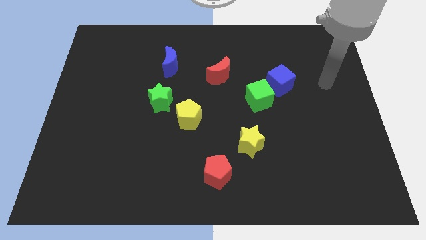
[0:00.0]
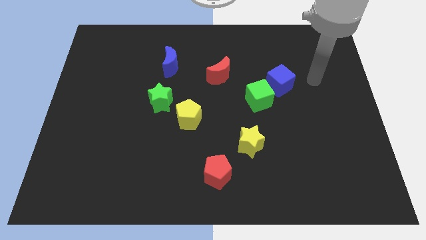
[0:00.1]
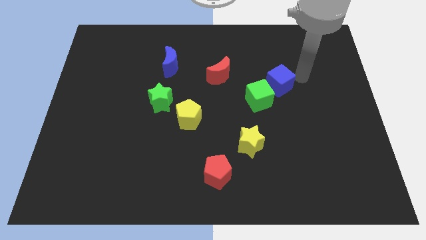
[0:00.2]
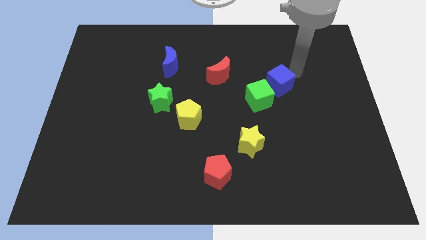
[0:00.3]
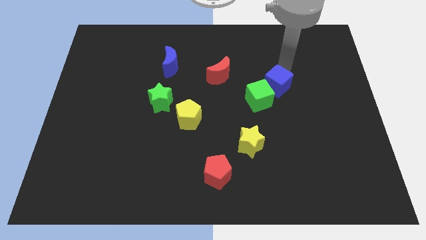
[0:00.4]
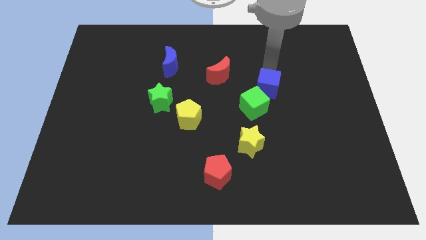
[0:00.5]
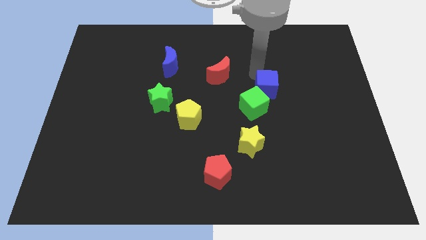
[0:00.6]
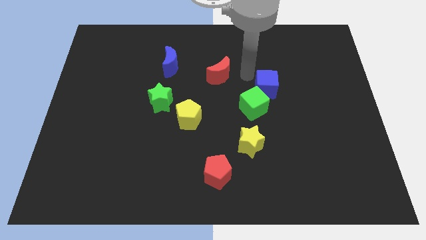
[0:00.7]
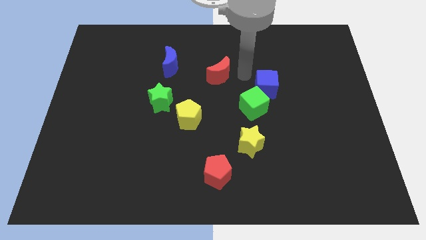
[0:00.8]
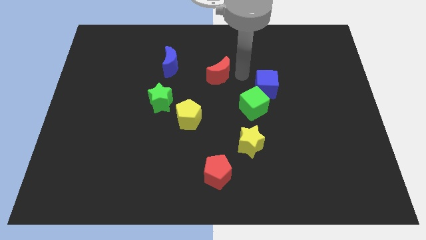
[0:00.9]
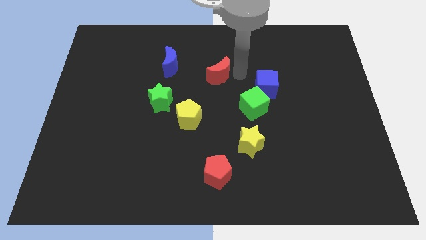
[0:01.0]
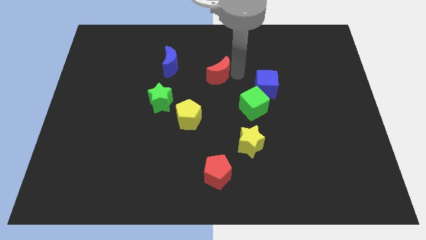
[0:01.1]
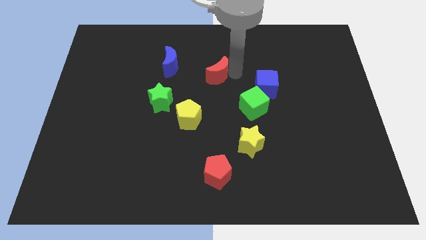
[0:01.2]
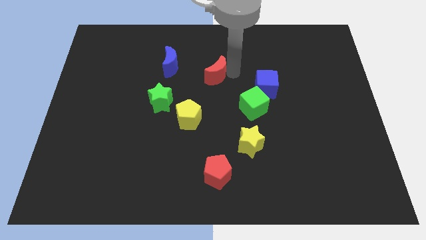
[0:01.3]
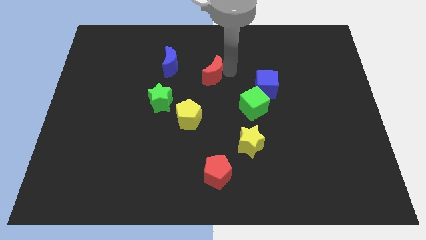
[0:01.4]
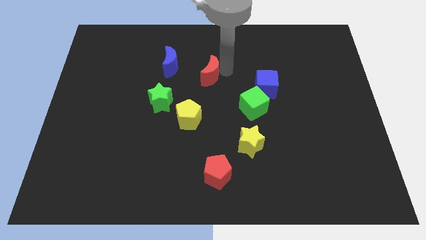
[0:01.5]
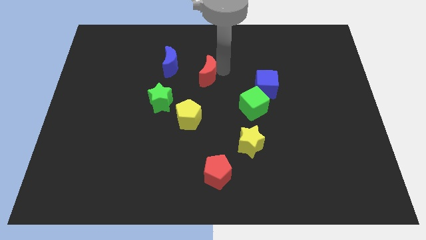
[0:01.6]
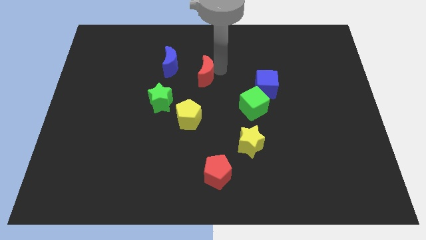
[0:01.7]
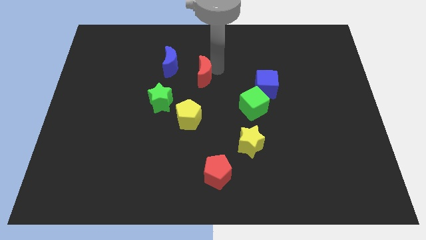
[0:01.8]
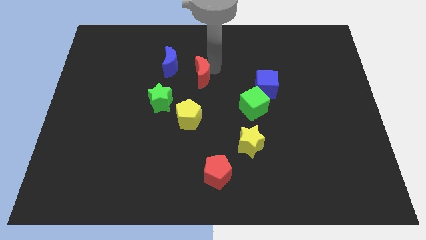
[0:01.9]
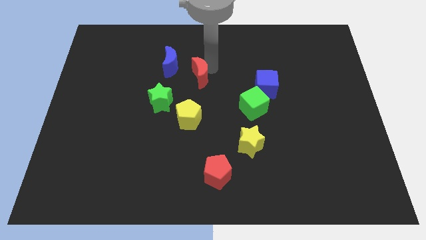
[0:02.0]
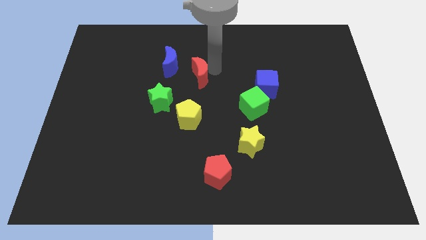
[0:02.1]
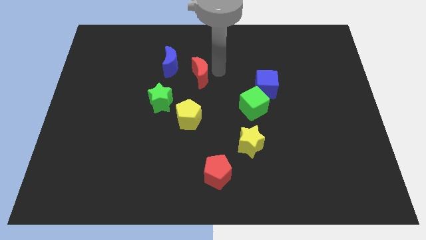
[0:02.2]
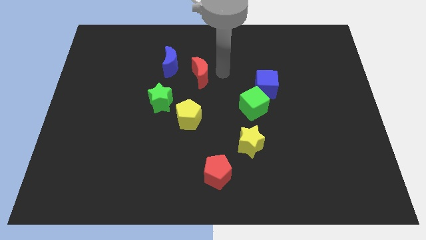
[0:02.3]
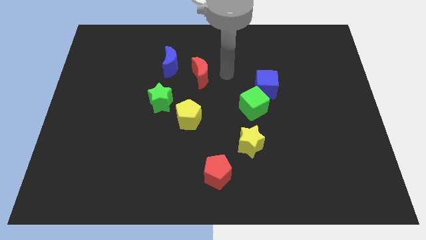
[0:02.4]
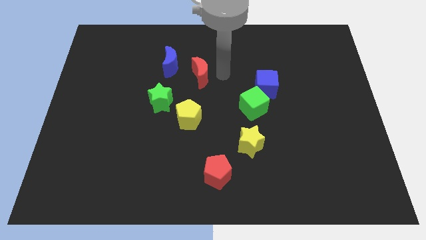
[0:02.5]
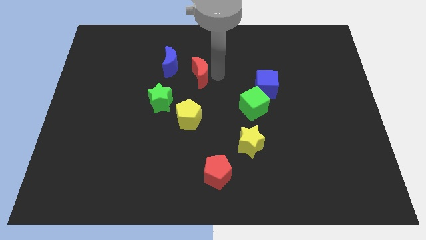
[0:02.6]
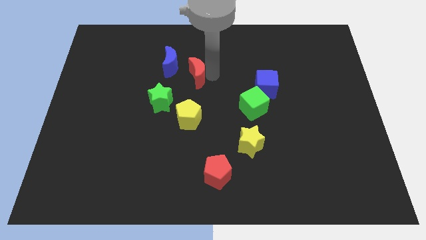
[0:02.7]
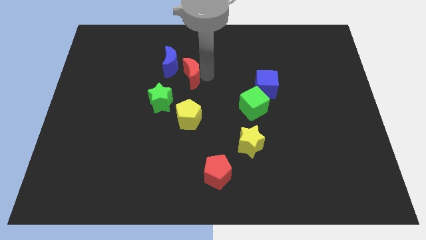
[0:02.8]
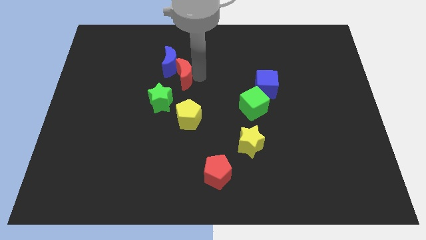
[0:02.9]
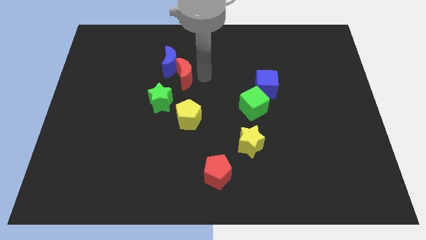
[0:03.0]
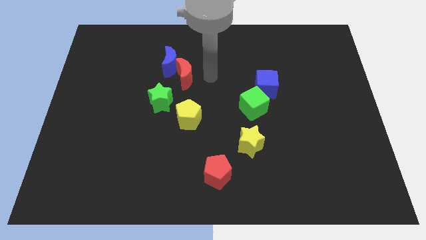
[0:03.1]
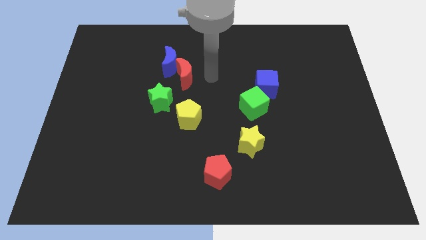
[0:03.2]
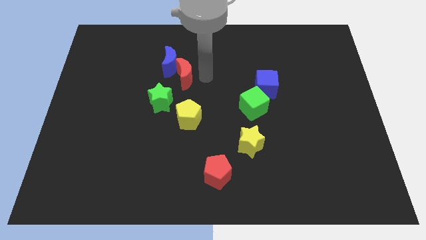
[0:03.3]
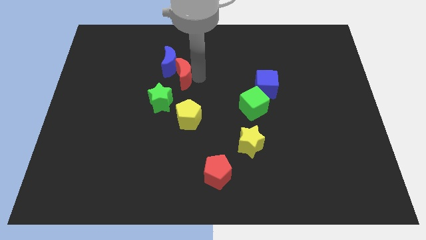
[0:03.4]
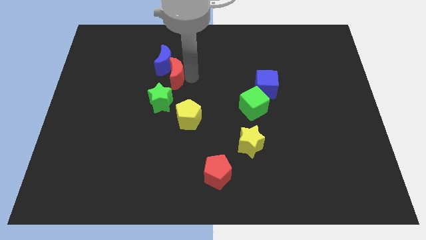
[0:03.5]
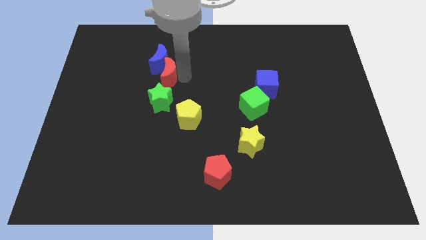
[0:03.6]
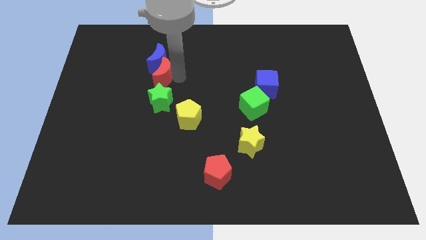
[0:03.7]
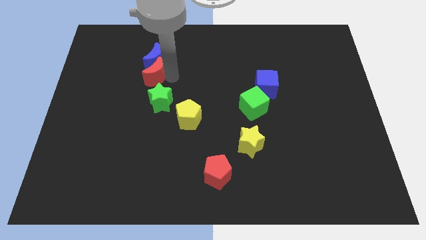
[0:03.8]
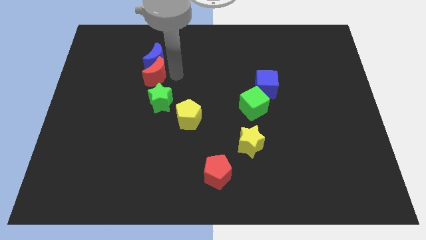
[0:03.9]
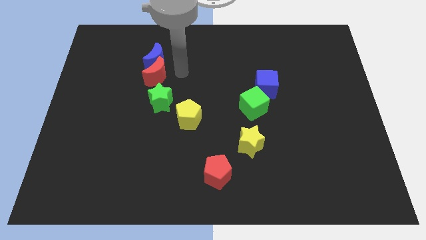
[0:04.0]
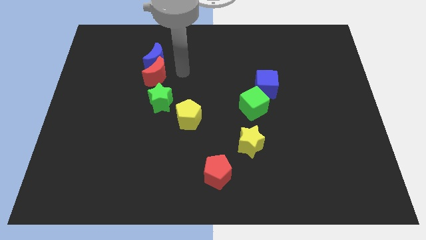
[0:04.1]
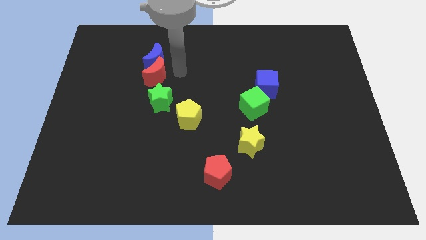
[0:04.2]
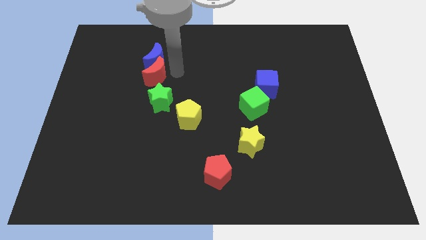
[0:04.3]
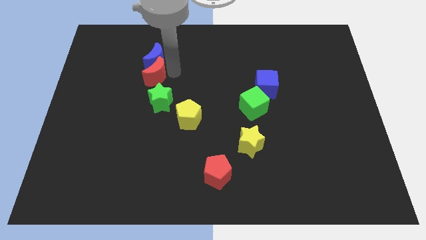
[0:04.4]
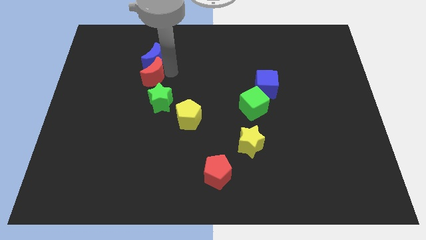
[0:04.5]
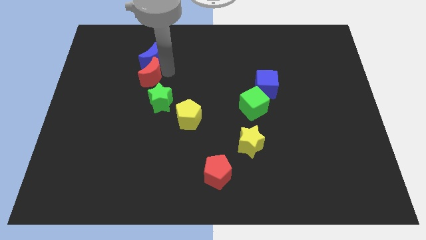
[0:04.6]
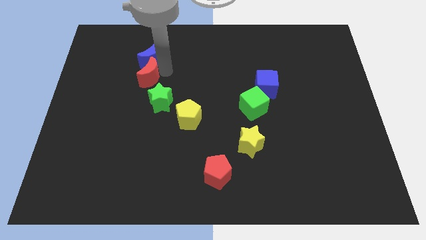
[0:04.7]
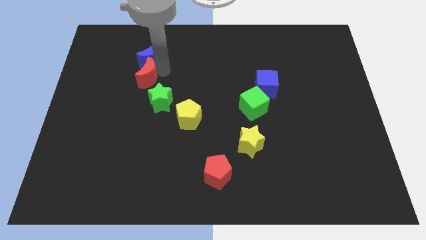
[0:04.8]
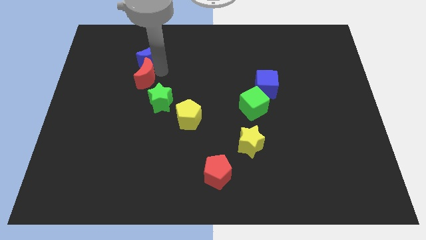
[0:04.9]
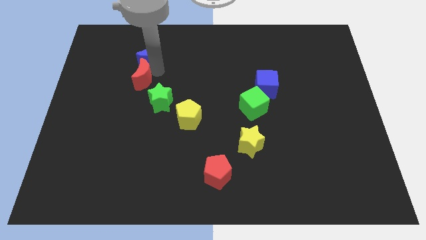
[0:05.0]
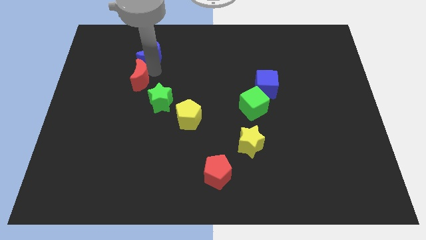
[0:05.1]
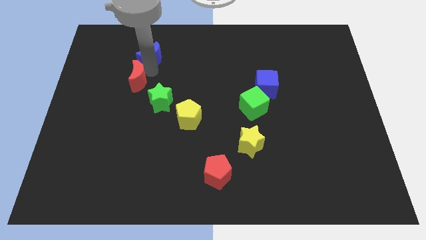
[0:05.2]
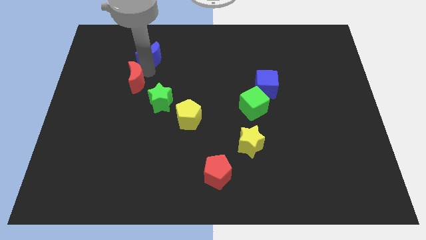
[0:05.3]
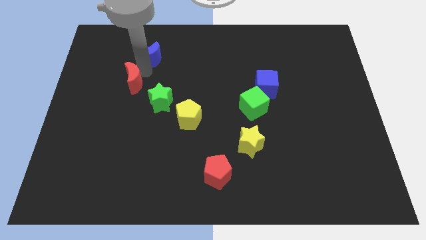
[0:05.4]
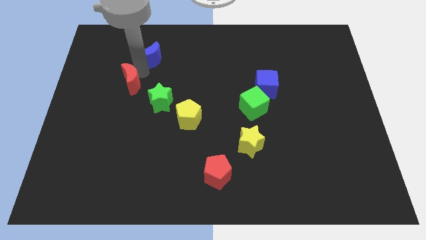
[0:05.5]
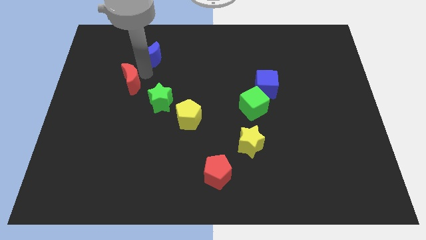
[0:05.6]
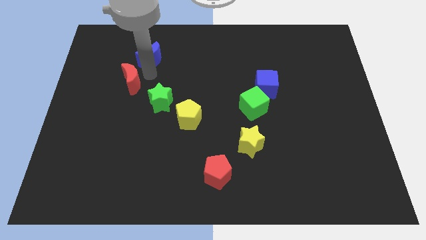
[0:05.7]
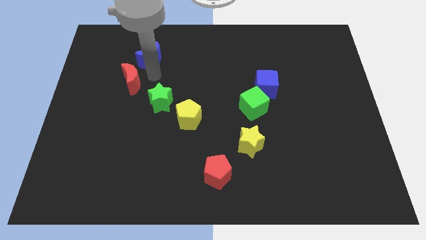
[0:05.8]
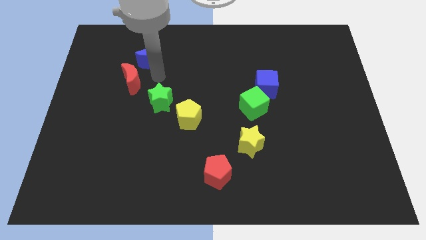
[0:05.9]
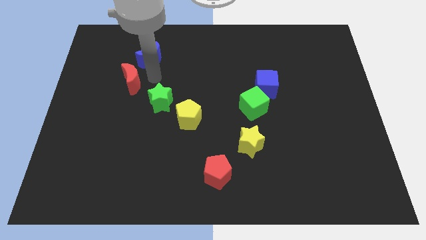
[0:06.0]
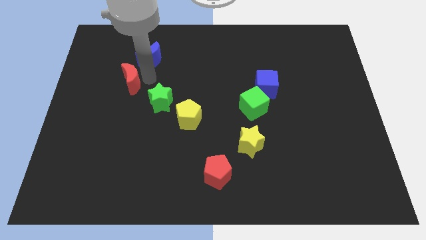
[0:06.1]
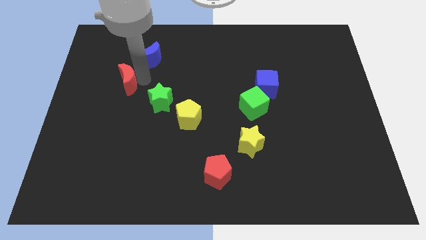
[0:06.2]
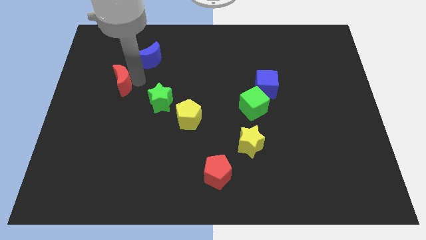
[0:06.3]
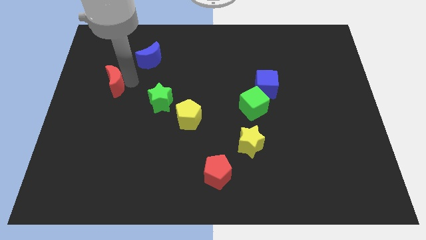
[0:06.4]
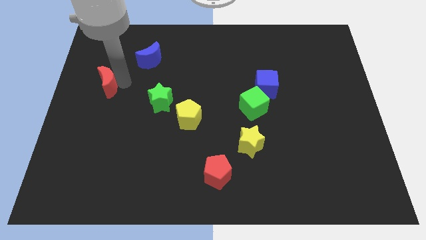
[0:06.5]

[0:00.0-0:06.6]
slide the red moon to the center left
